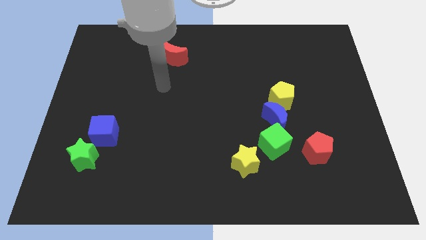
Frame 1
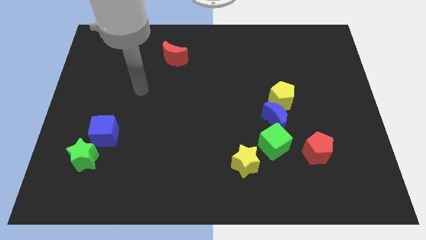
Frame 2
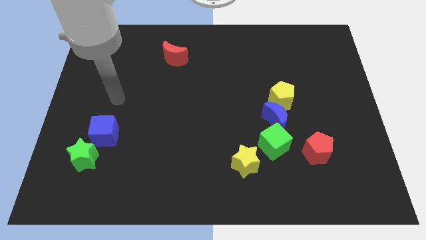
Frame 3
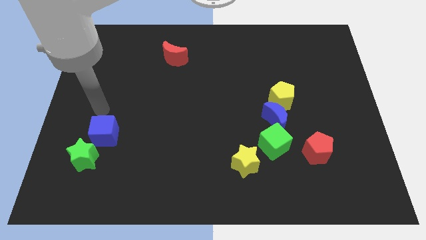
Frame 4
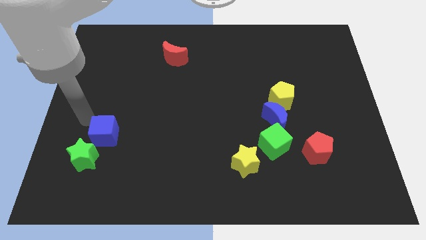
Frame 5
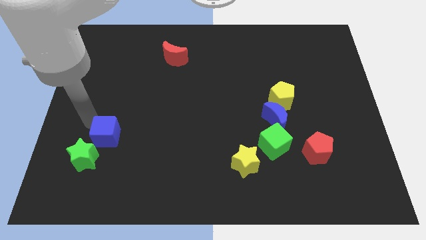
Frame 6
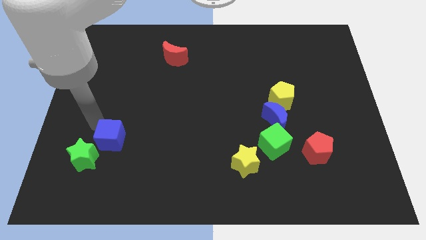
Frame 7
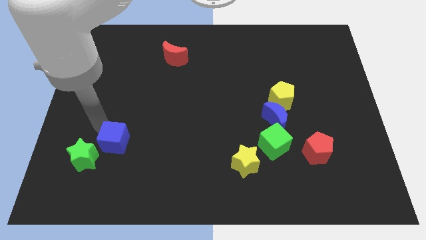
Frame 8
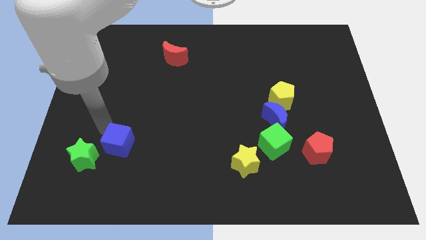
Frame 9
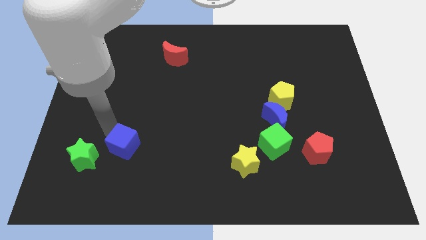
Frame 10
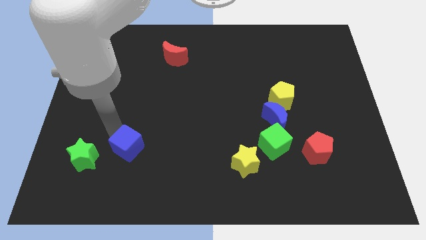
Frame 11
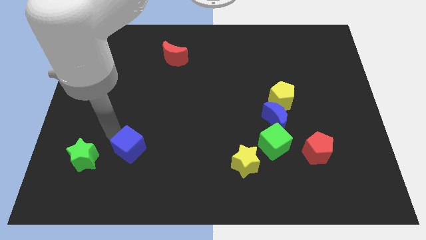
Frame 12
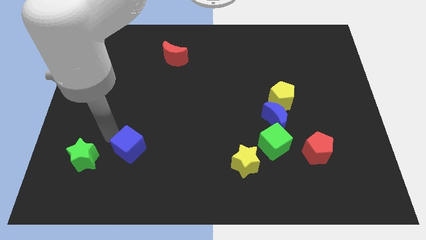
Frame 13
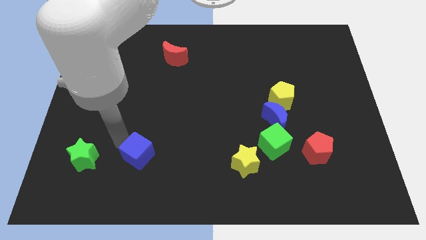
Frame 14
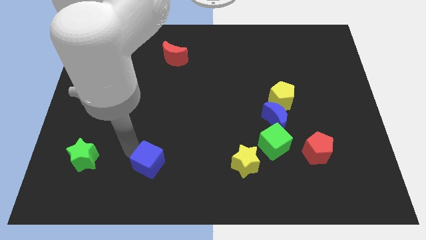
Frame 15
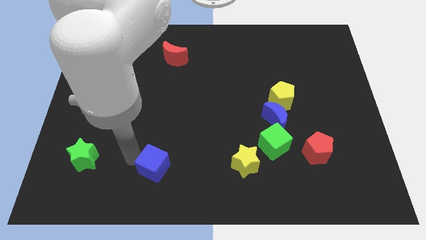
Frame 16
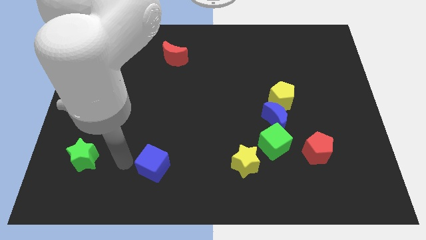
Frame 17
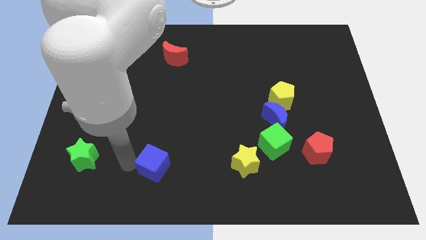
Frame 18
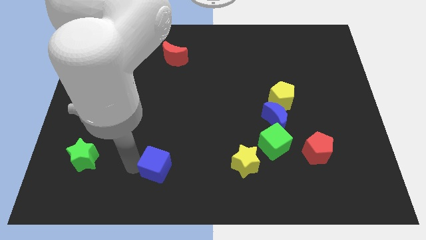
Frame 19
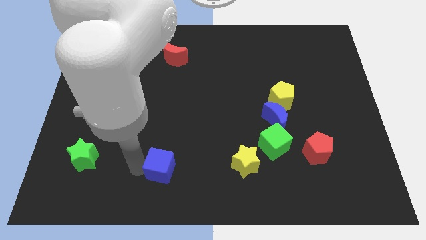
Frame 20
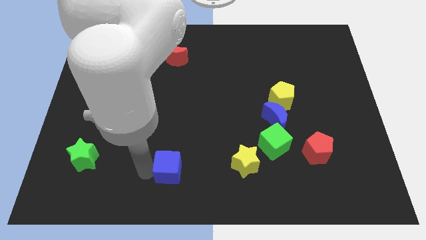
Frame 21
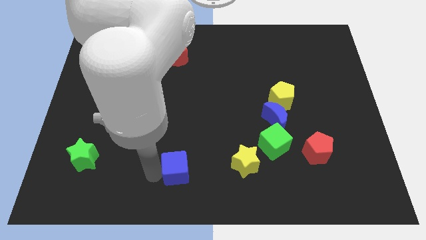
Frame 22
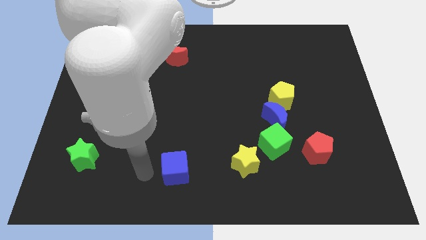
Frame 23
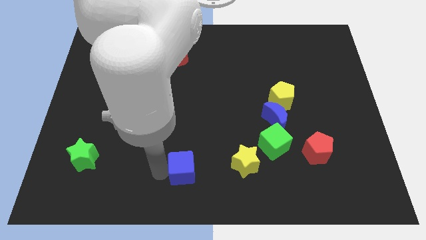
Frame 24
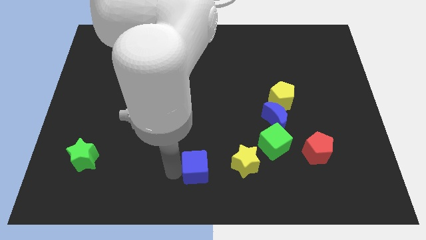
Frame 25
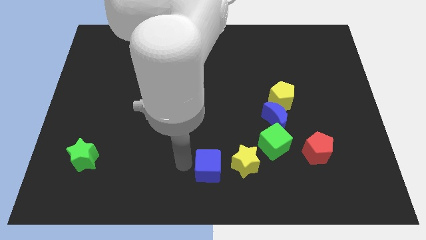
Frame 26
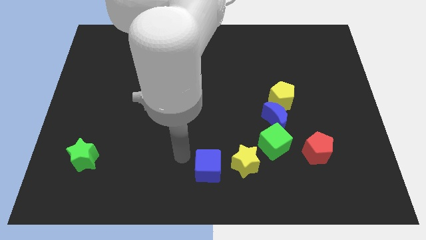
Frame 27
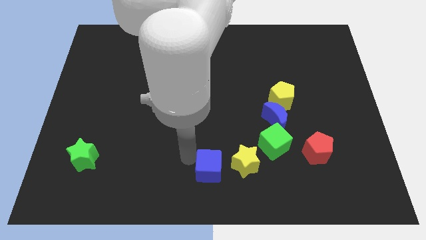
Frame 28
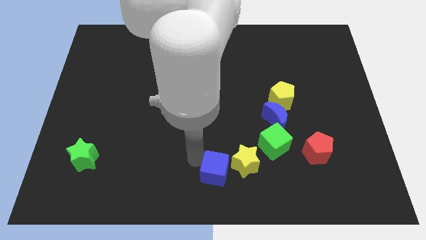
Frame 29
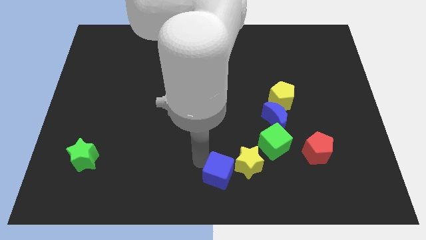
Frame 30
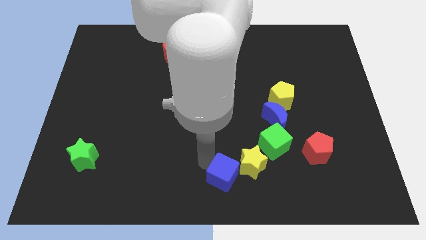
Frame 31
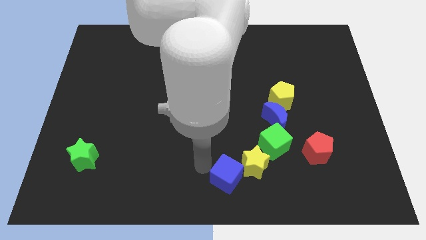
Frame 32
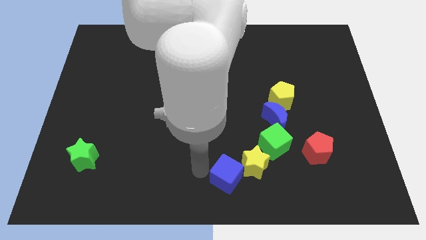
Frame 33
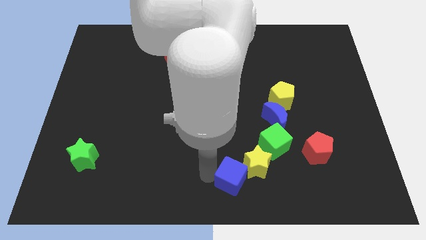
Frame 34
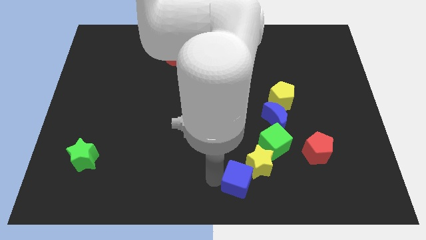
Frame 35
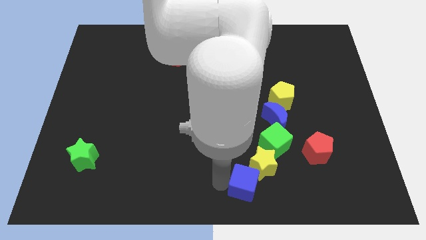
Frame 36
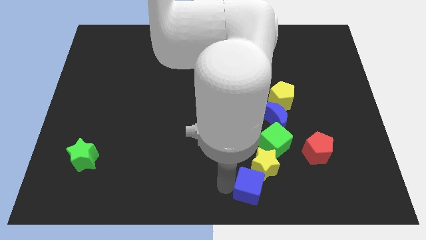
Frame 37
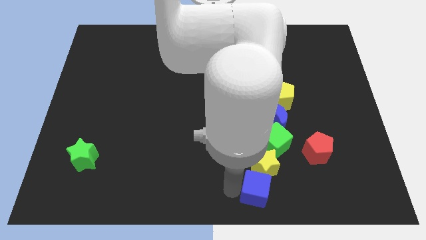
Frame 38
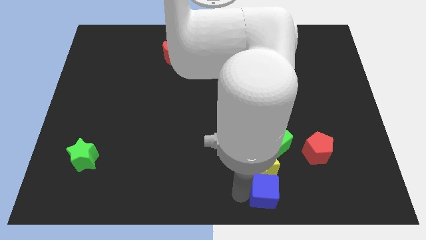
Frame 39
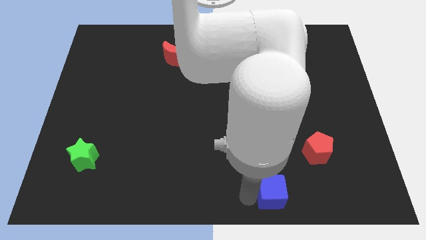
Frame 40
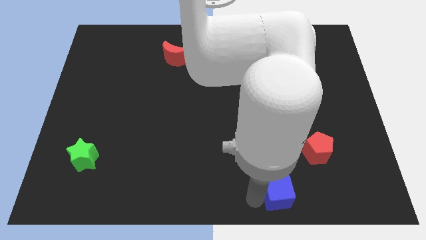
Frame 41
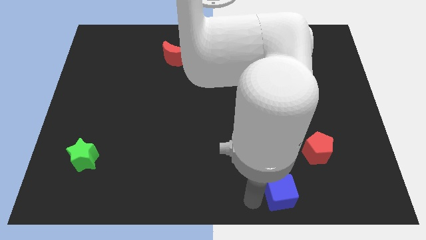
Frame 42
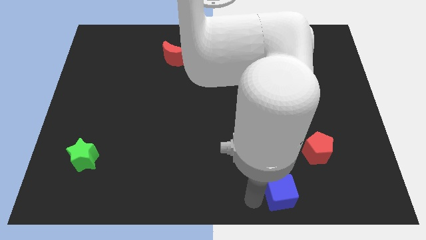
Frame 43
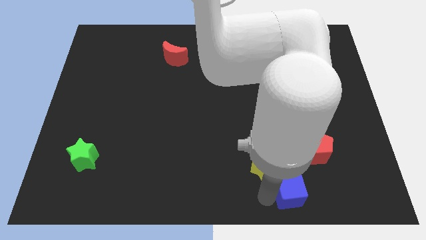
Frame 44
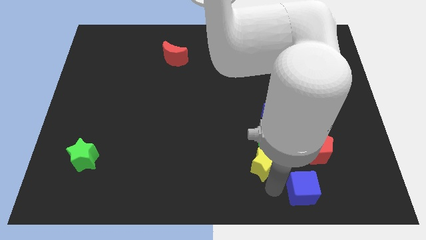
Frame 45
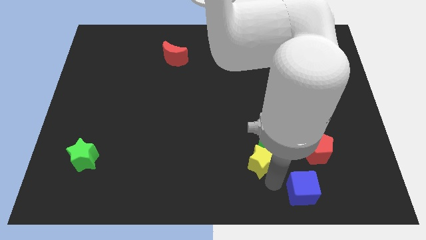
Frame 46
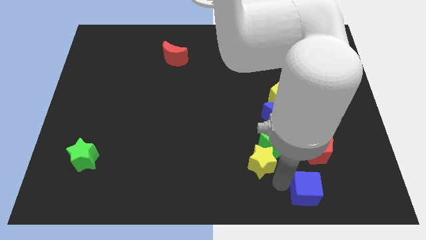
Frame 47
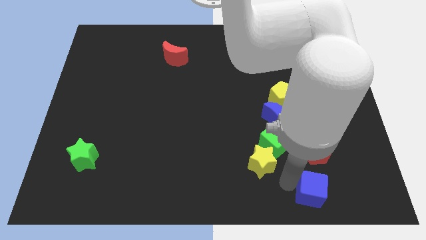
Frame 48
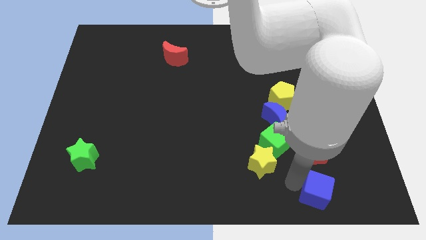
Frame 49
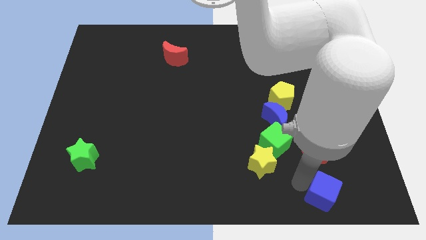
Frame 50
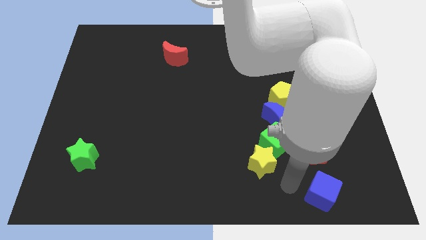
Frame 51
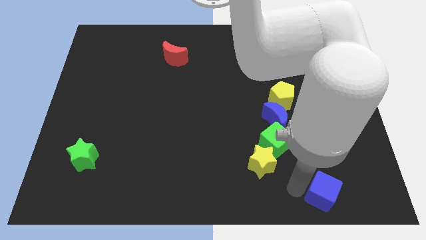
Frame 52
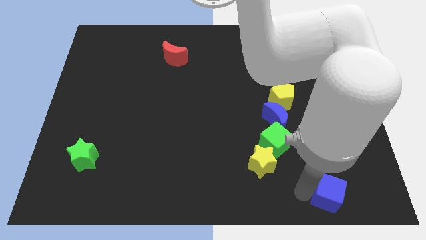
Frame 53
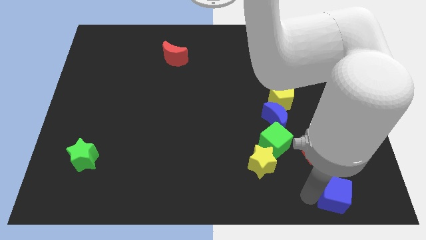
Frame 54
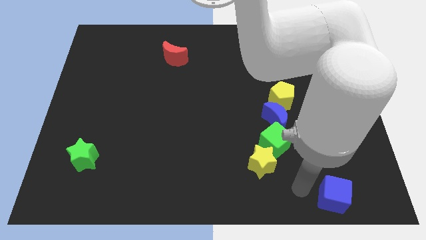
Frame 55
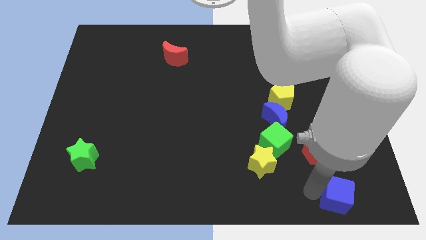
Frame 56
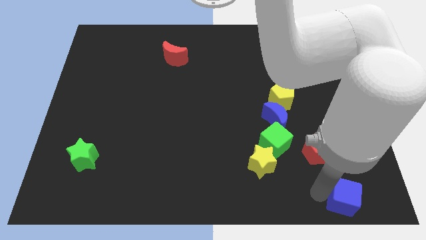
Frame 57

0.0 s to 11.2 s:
put the blue cube to the lower right corner
